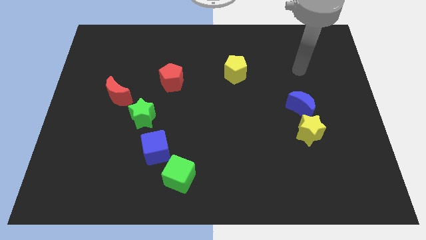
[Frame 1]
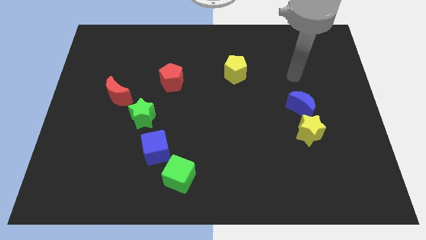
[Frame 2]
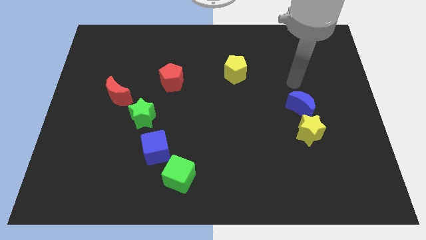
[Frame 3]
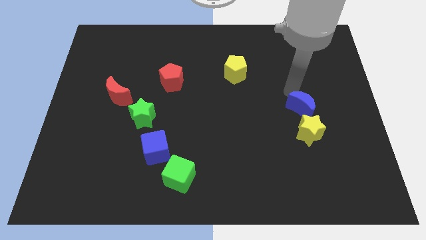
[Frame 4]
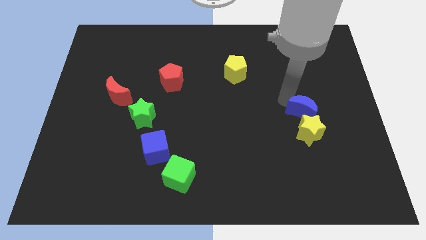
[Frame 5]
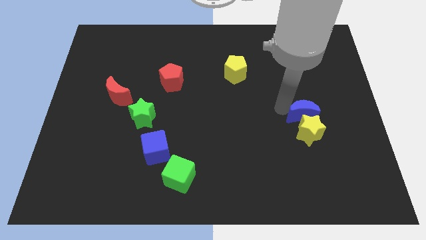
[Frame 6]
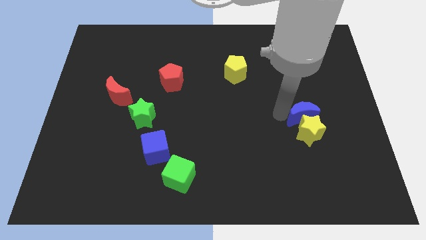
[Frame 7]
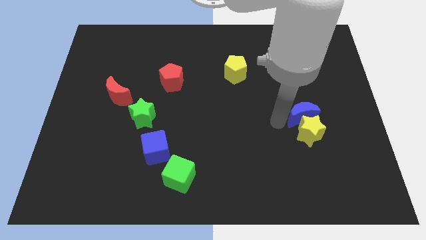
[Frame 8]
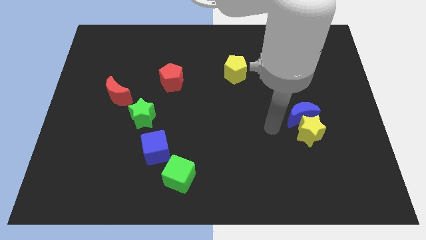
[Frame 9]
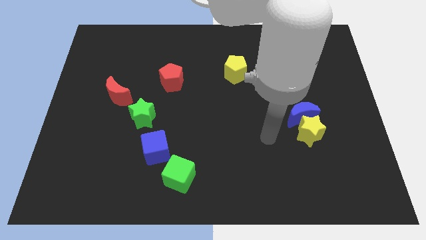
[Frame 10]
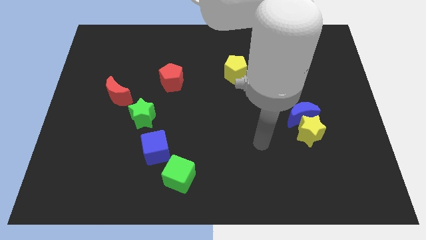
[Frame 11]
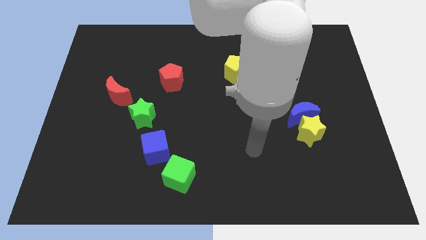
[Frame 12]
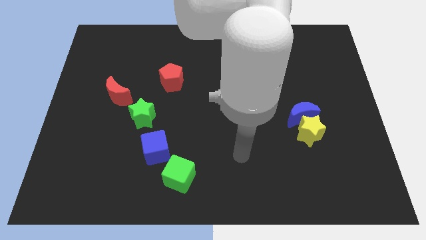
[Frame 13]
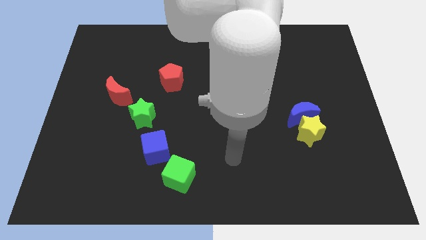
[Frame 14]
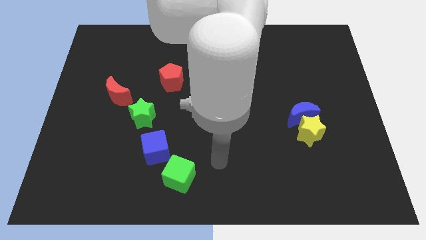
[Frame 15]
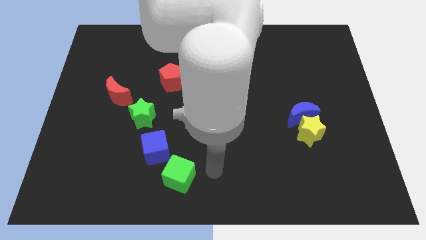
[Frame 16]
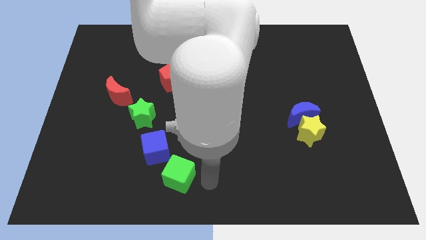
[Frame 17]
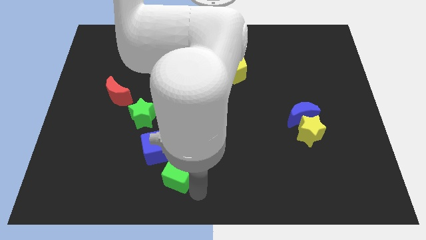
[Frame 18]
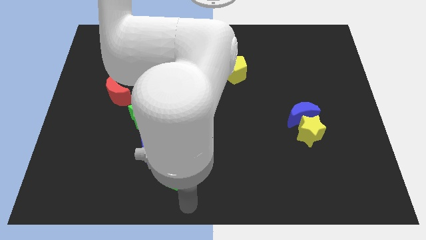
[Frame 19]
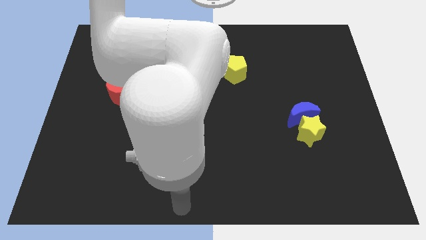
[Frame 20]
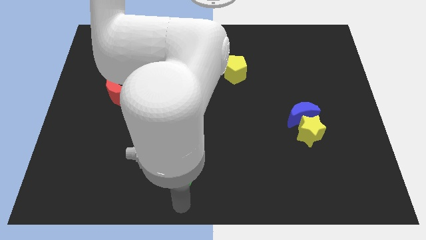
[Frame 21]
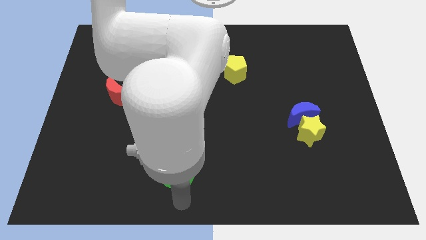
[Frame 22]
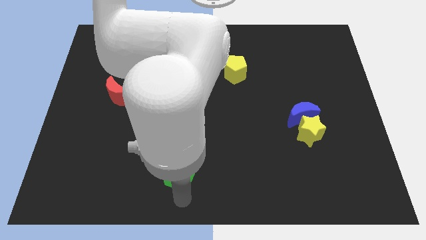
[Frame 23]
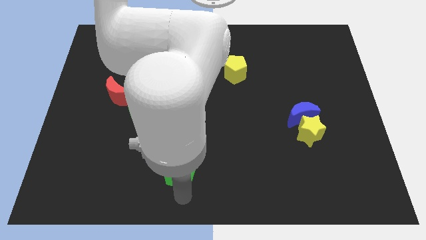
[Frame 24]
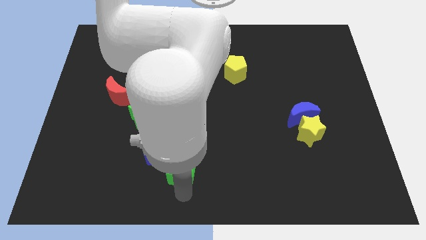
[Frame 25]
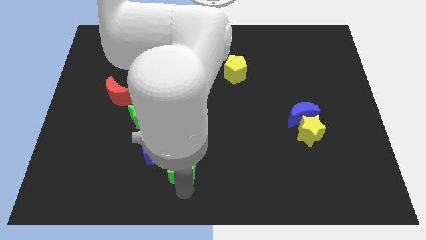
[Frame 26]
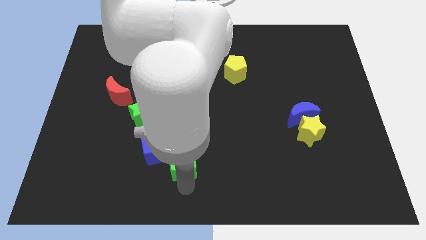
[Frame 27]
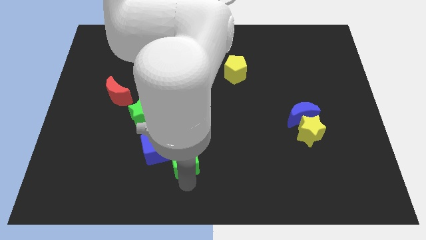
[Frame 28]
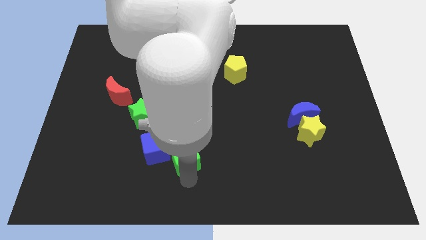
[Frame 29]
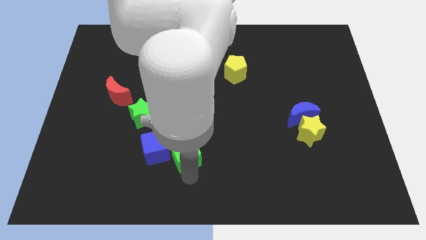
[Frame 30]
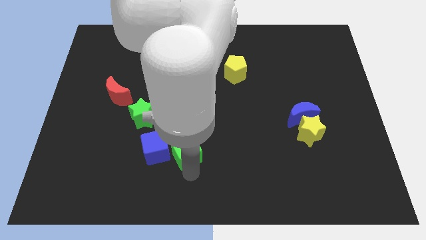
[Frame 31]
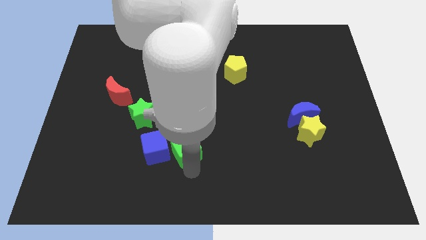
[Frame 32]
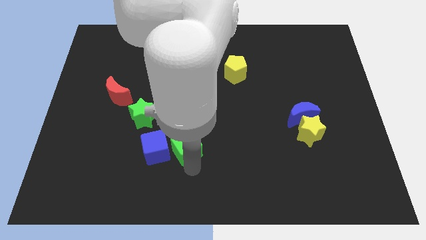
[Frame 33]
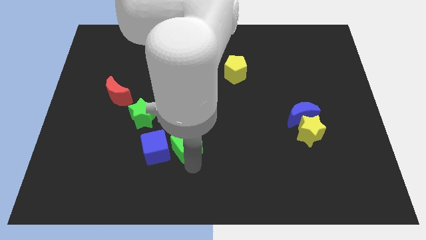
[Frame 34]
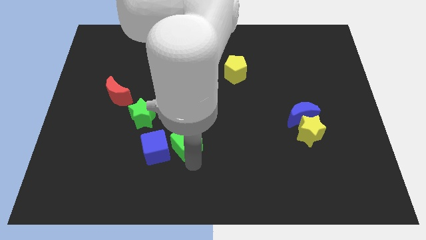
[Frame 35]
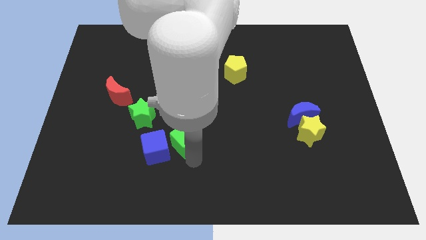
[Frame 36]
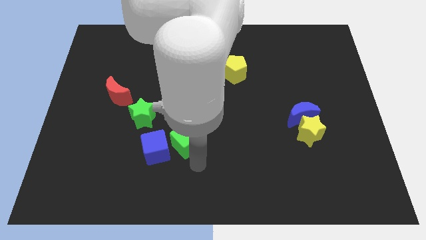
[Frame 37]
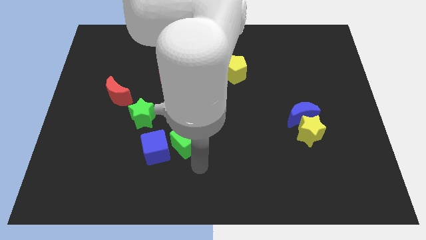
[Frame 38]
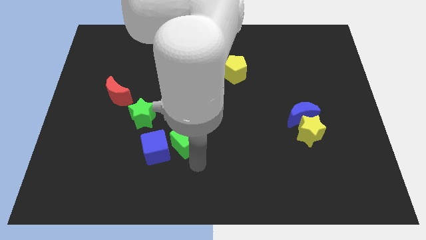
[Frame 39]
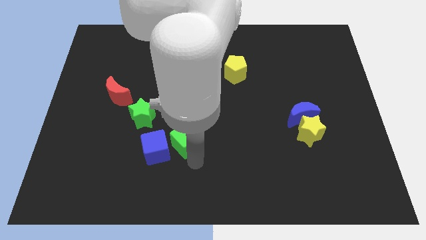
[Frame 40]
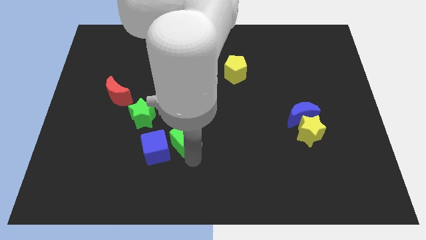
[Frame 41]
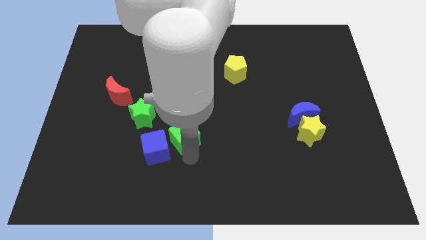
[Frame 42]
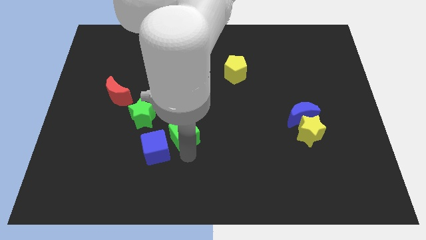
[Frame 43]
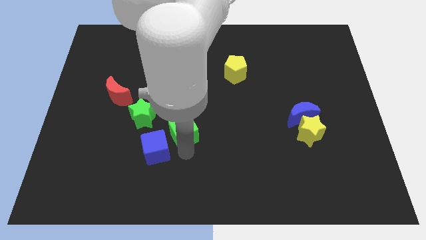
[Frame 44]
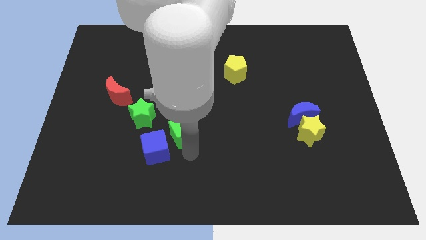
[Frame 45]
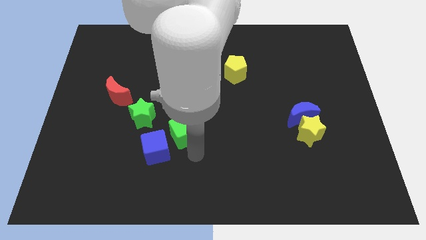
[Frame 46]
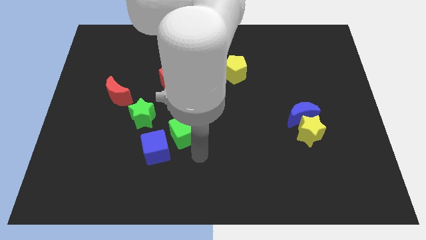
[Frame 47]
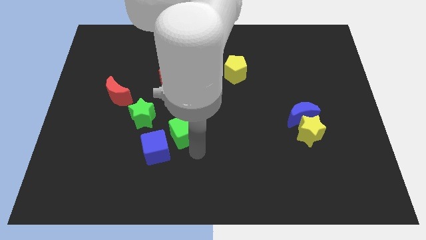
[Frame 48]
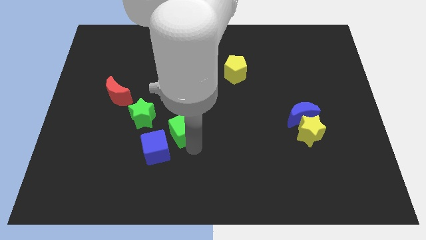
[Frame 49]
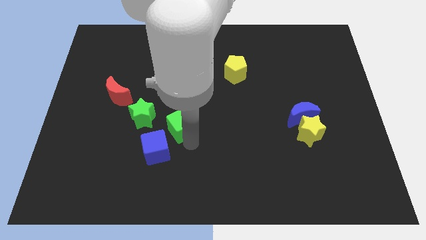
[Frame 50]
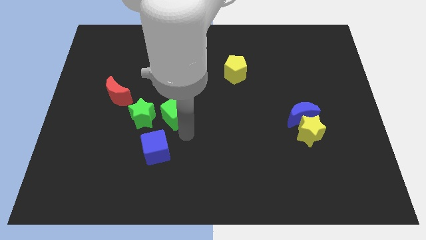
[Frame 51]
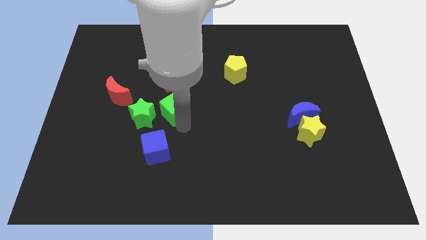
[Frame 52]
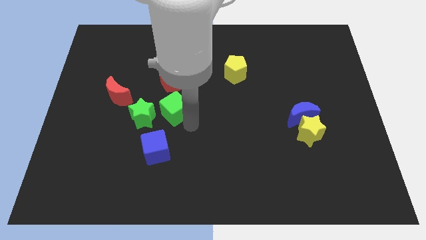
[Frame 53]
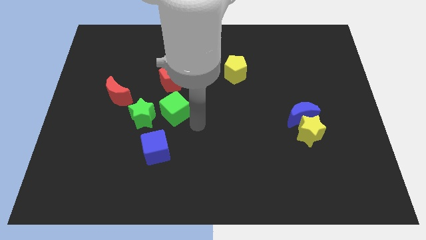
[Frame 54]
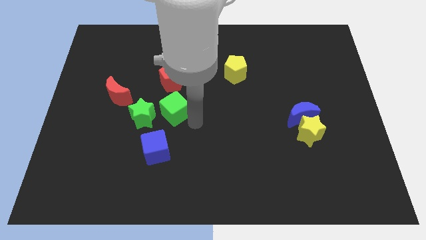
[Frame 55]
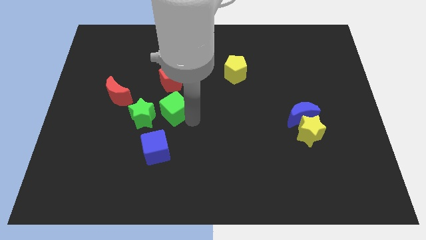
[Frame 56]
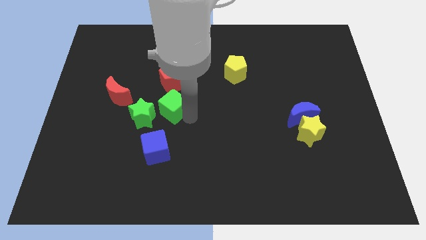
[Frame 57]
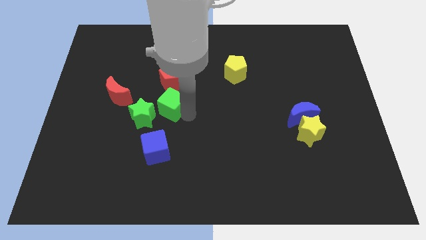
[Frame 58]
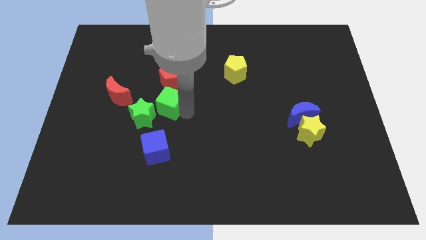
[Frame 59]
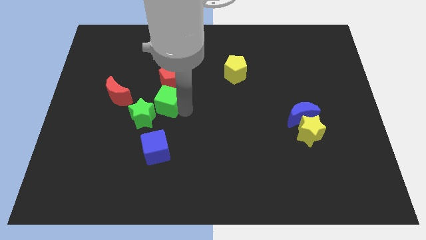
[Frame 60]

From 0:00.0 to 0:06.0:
move the green cube to the bottom left side of the red pentagon
